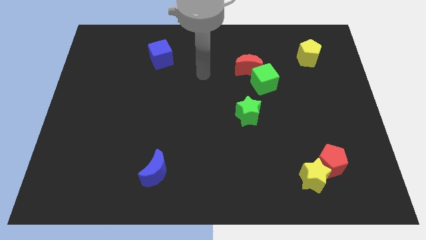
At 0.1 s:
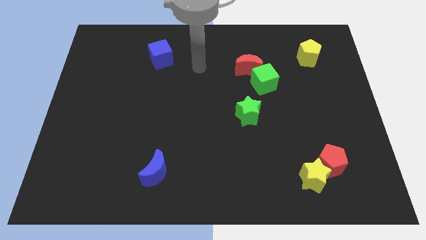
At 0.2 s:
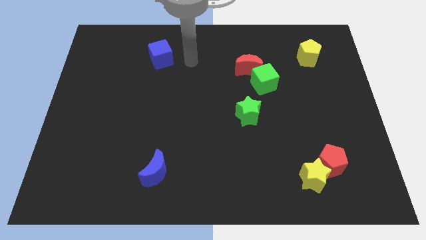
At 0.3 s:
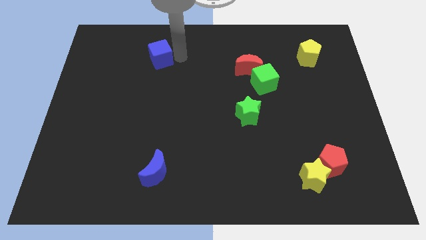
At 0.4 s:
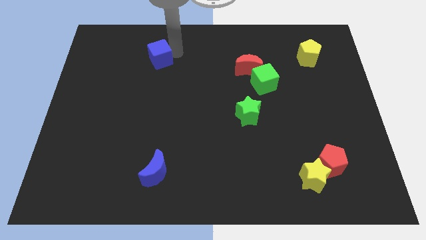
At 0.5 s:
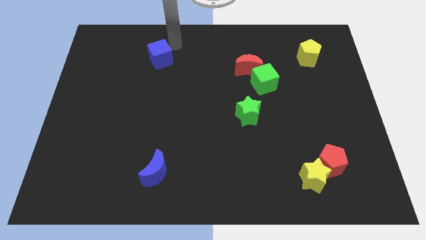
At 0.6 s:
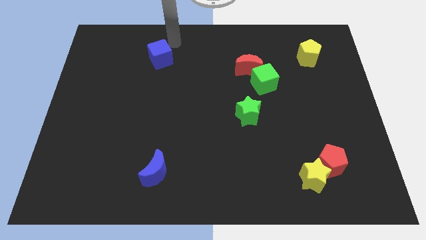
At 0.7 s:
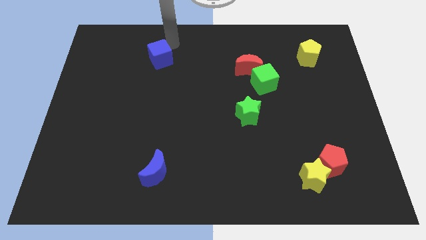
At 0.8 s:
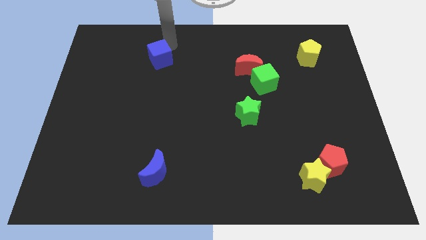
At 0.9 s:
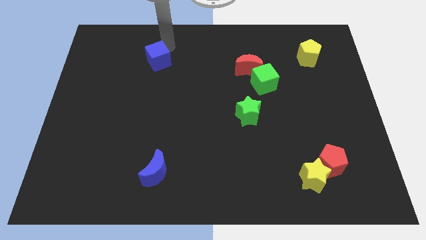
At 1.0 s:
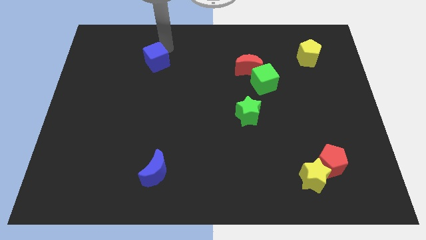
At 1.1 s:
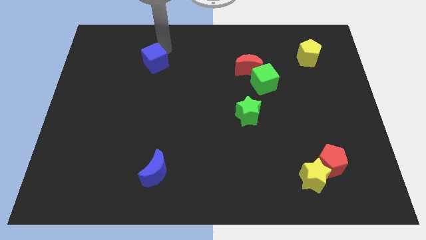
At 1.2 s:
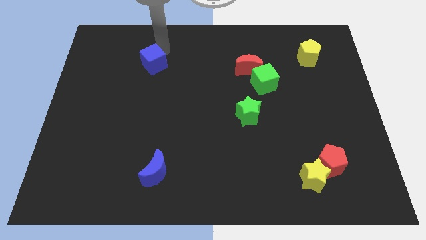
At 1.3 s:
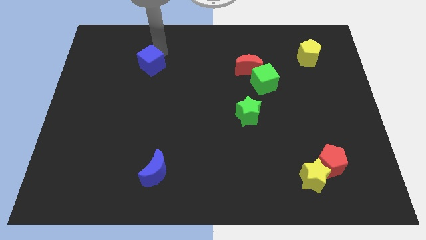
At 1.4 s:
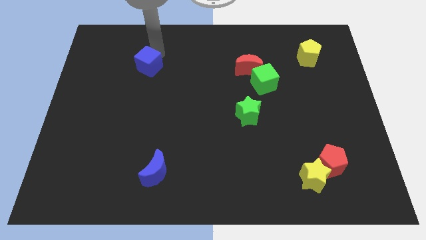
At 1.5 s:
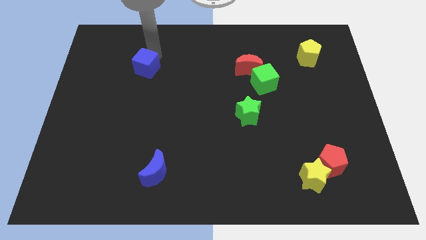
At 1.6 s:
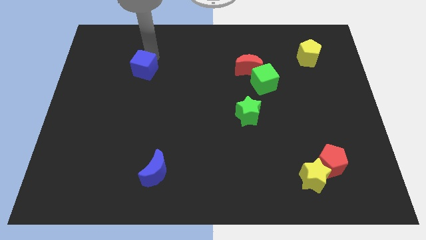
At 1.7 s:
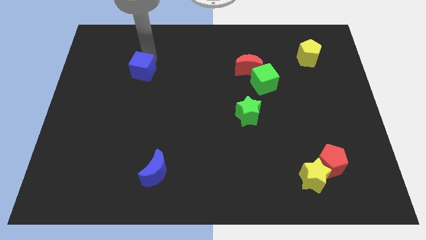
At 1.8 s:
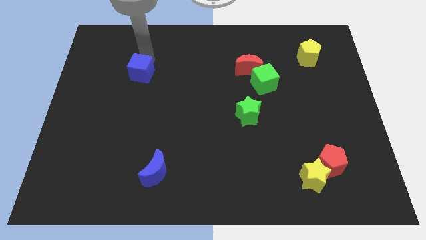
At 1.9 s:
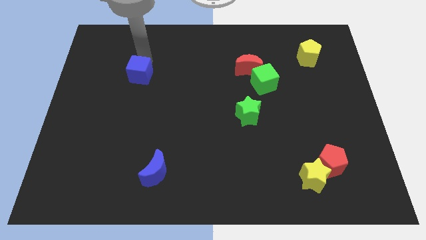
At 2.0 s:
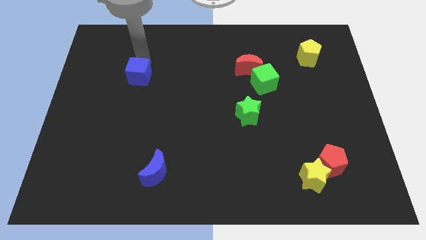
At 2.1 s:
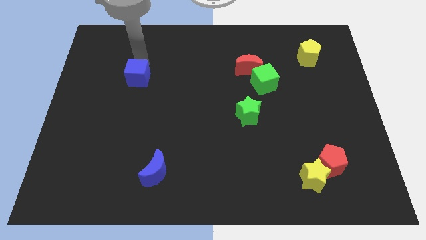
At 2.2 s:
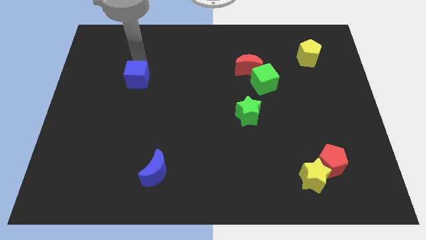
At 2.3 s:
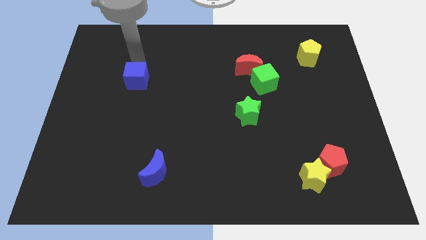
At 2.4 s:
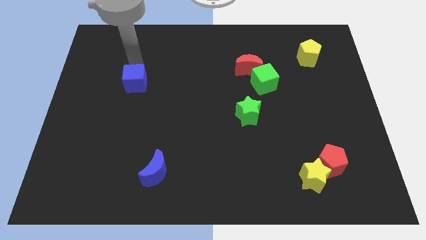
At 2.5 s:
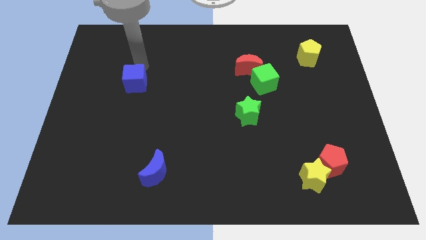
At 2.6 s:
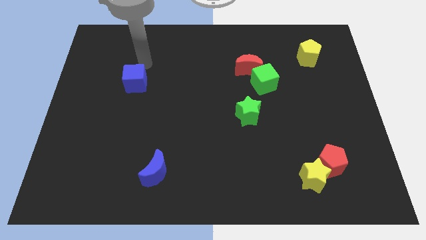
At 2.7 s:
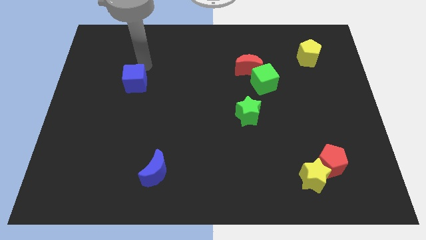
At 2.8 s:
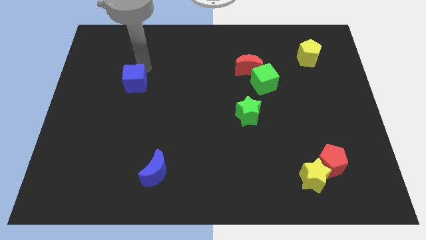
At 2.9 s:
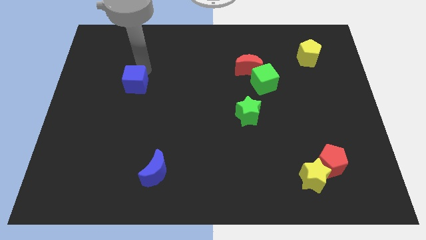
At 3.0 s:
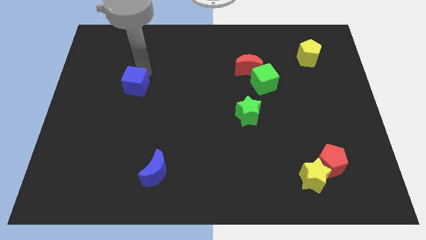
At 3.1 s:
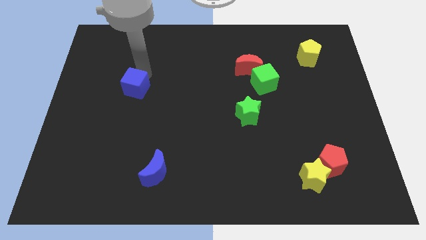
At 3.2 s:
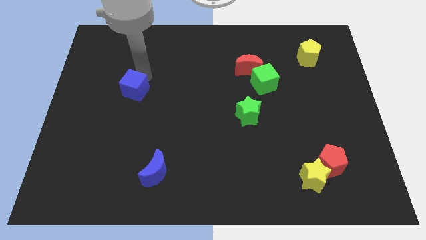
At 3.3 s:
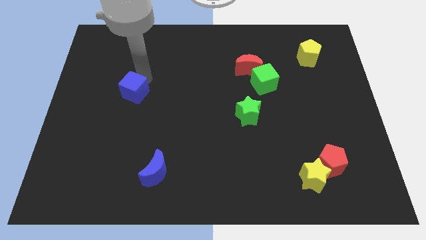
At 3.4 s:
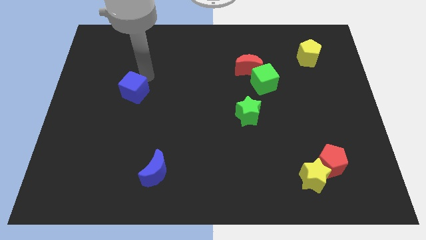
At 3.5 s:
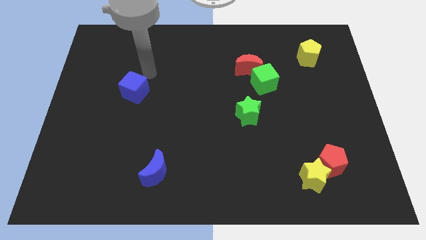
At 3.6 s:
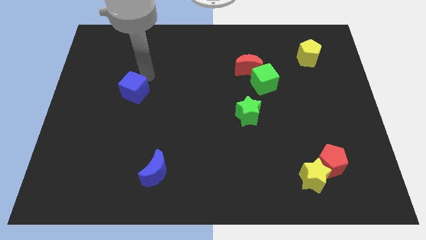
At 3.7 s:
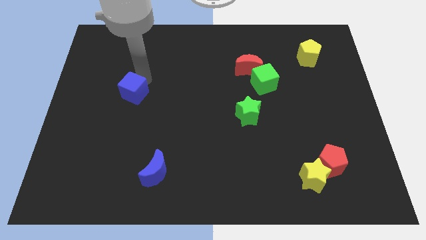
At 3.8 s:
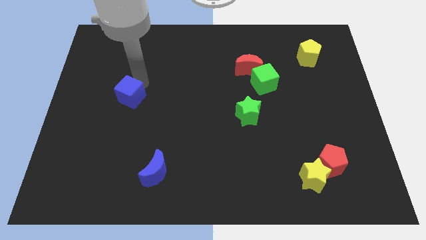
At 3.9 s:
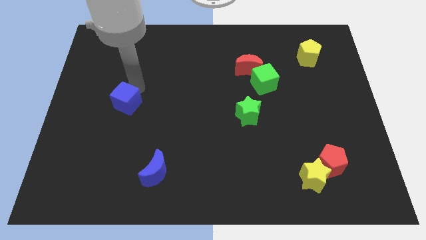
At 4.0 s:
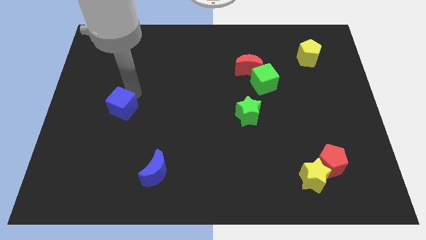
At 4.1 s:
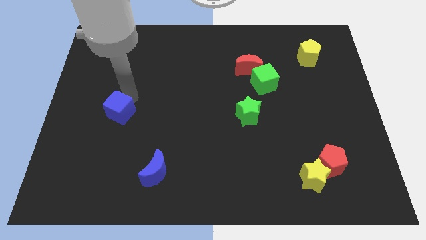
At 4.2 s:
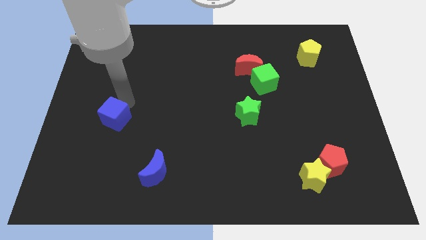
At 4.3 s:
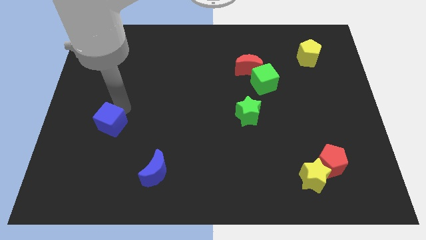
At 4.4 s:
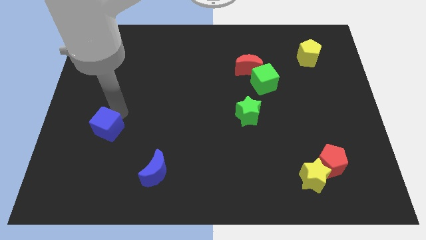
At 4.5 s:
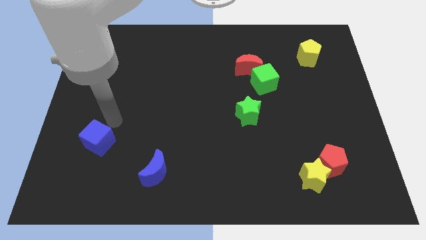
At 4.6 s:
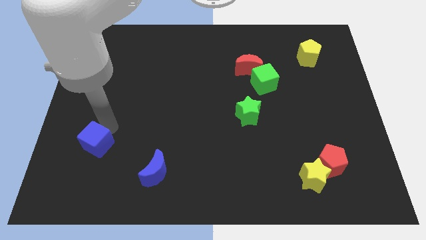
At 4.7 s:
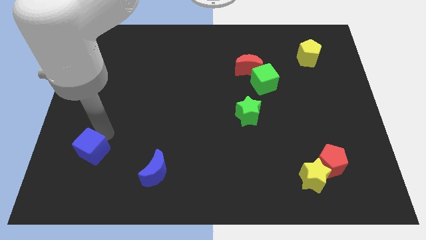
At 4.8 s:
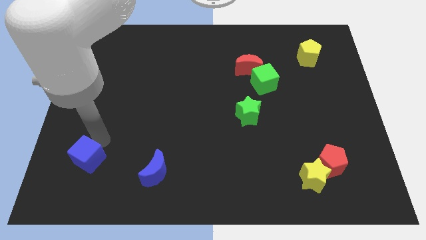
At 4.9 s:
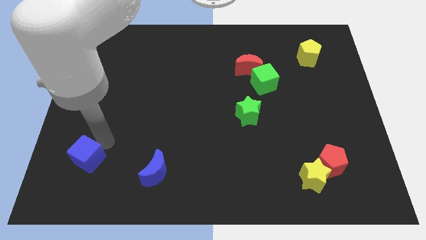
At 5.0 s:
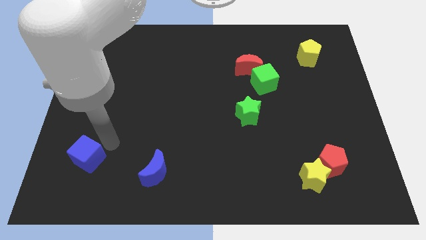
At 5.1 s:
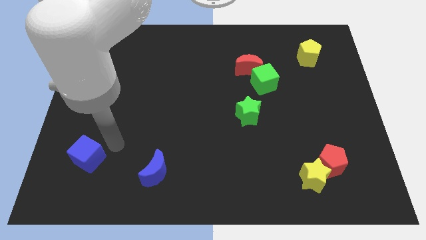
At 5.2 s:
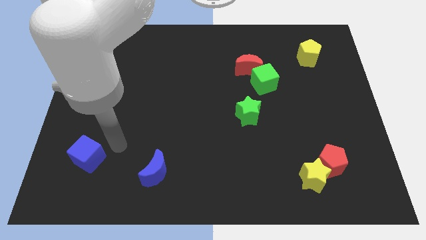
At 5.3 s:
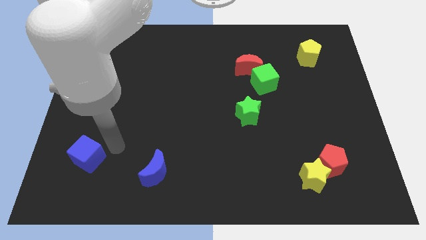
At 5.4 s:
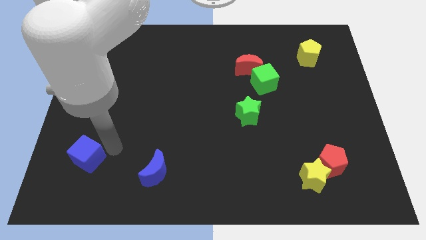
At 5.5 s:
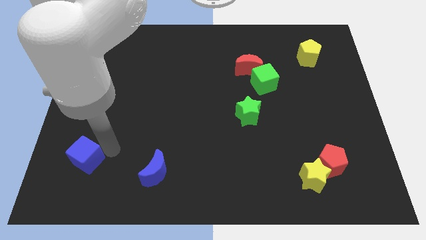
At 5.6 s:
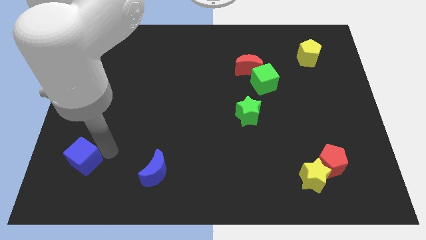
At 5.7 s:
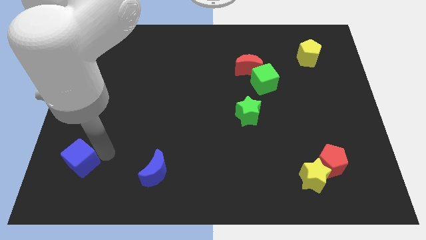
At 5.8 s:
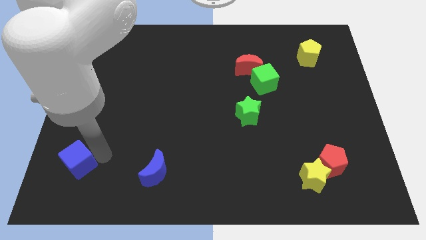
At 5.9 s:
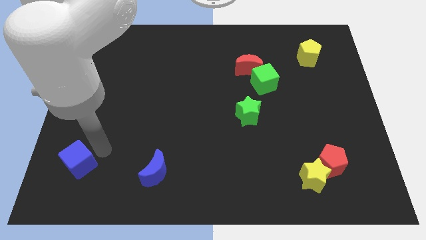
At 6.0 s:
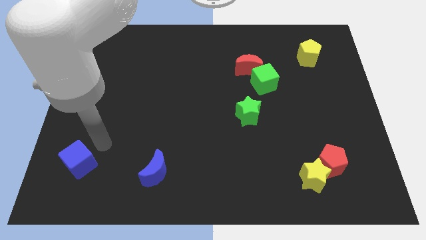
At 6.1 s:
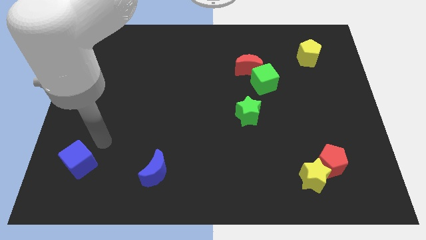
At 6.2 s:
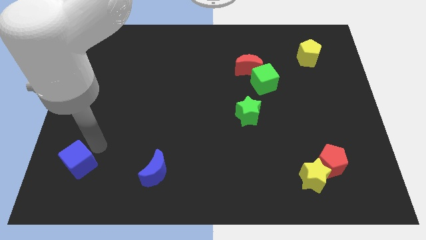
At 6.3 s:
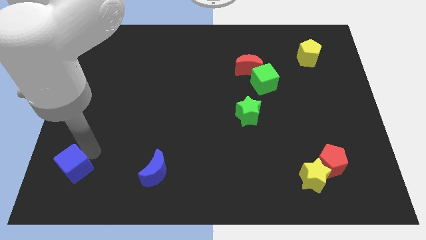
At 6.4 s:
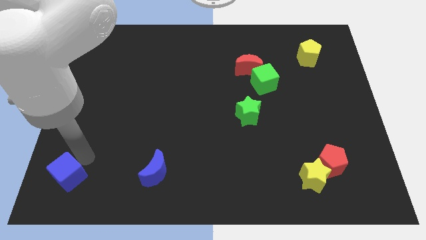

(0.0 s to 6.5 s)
put the blue cube to the bottom left
